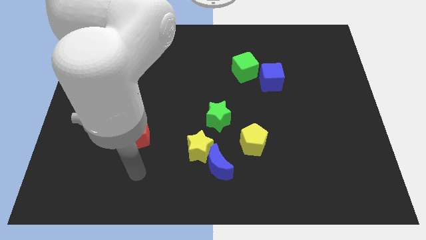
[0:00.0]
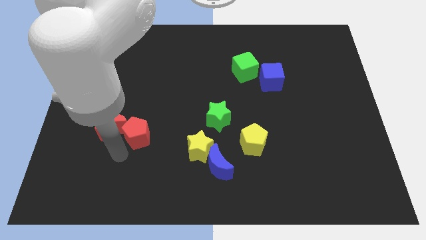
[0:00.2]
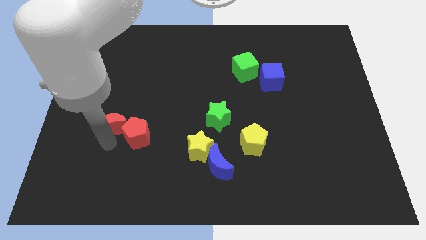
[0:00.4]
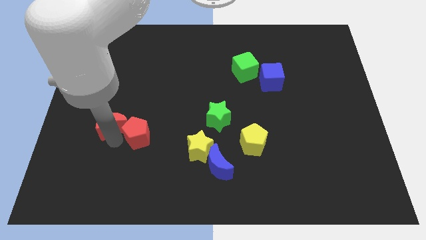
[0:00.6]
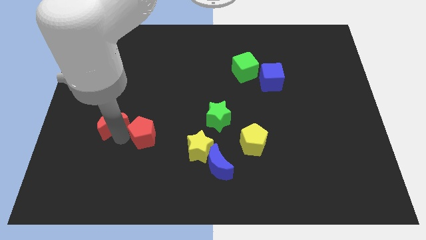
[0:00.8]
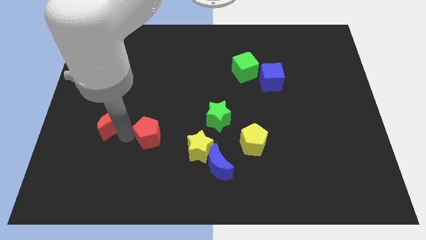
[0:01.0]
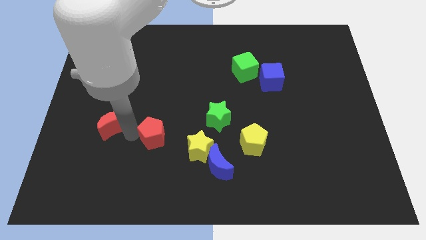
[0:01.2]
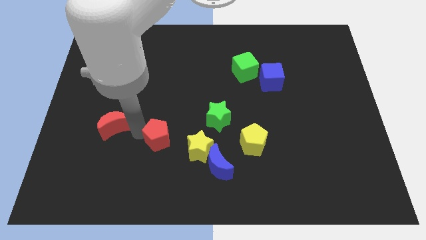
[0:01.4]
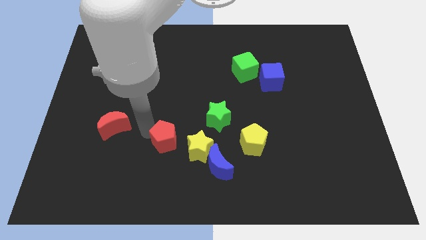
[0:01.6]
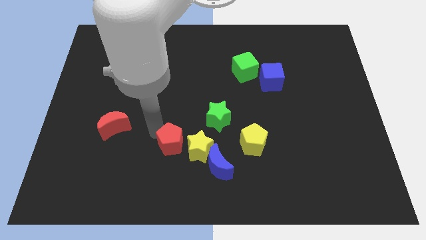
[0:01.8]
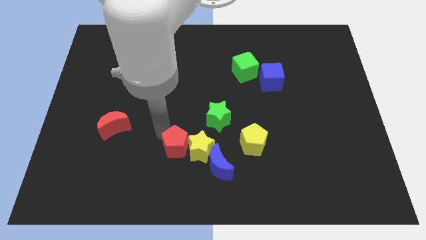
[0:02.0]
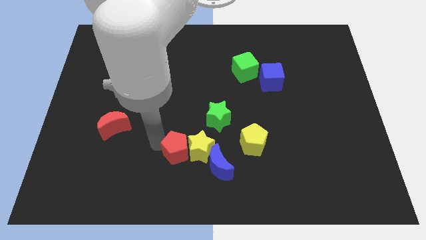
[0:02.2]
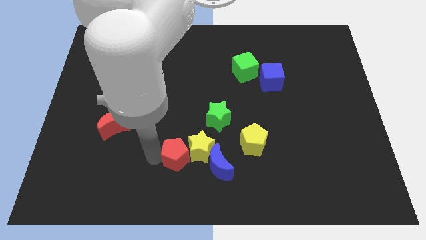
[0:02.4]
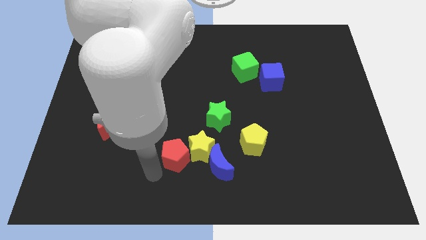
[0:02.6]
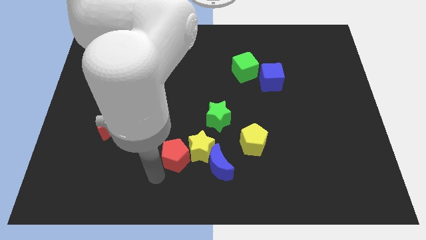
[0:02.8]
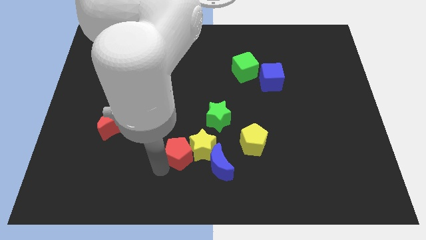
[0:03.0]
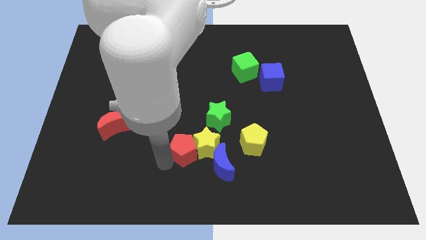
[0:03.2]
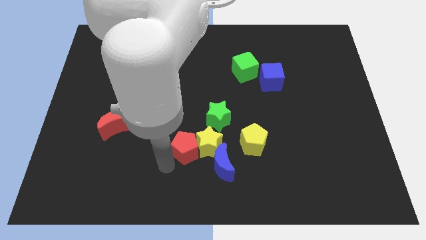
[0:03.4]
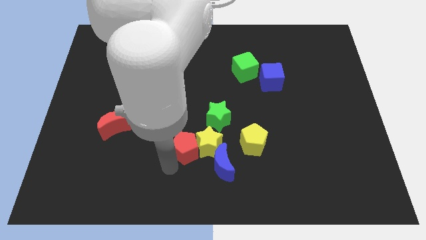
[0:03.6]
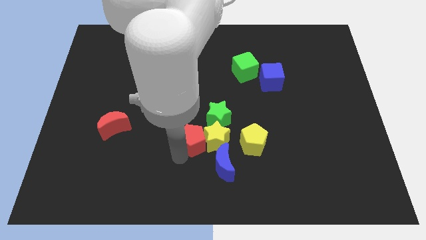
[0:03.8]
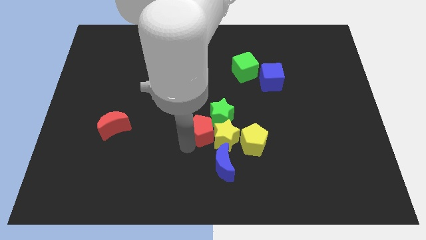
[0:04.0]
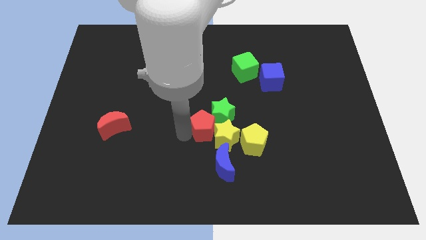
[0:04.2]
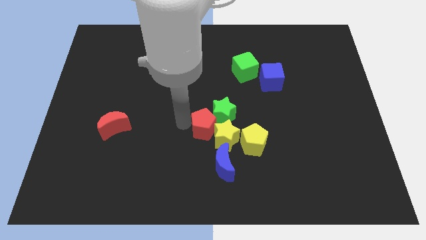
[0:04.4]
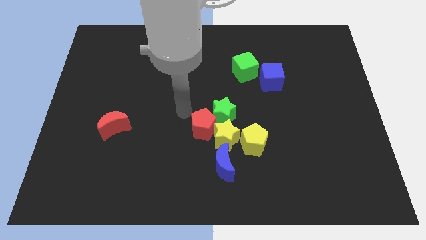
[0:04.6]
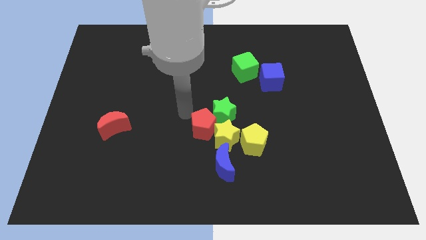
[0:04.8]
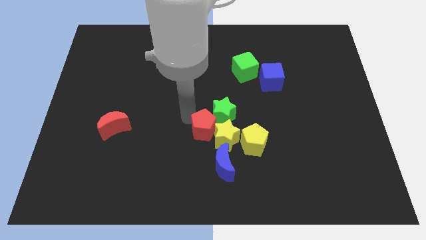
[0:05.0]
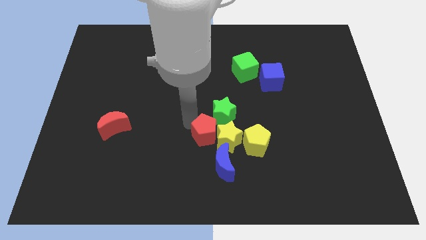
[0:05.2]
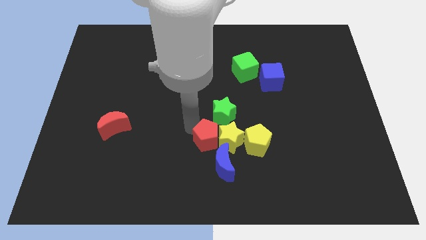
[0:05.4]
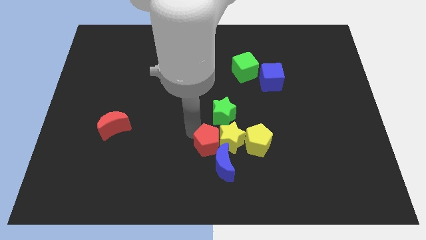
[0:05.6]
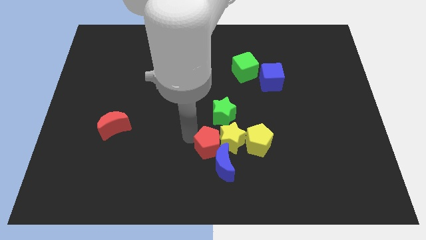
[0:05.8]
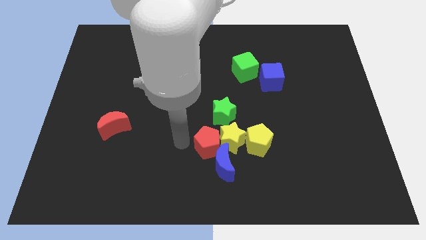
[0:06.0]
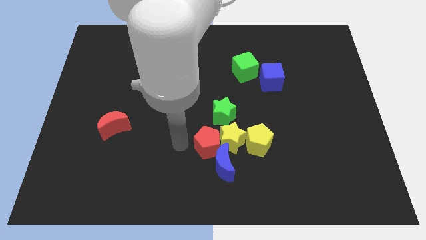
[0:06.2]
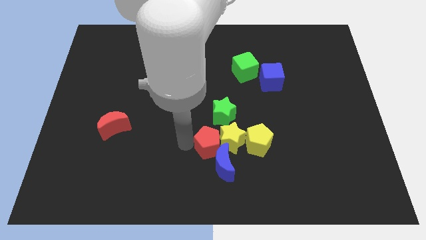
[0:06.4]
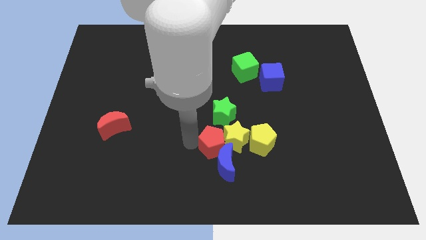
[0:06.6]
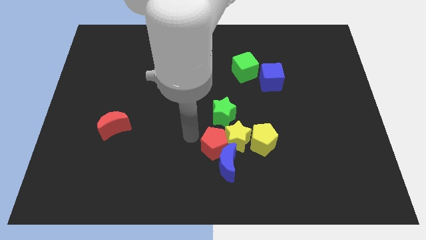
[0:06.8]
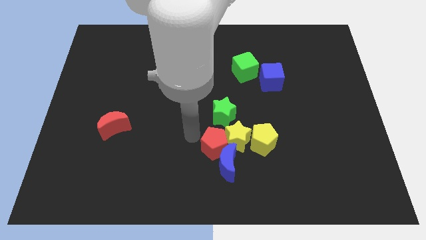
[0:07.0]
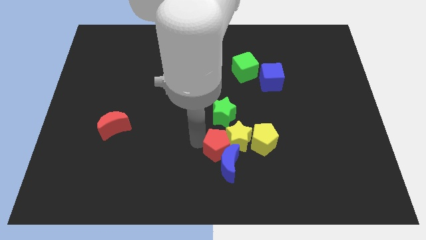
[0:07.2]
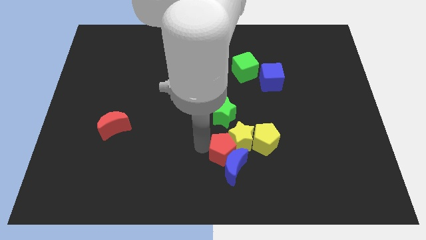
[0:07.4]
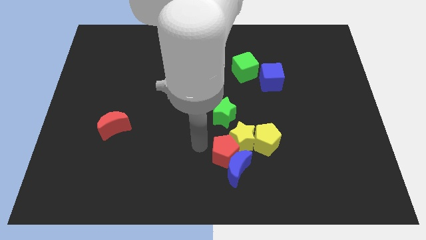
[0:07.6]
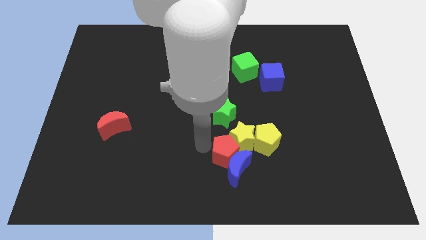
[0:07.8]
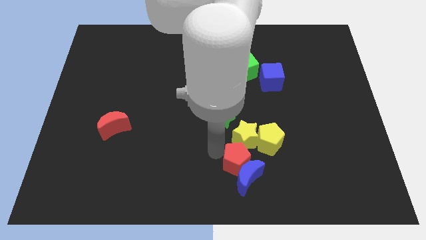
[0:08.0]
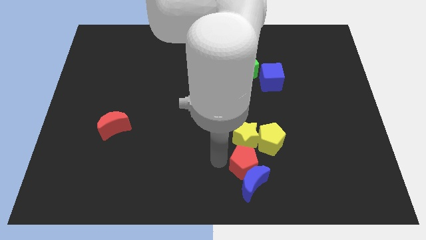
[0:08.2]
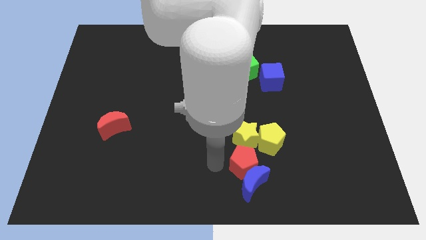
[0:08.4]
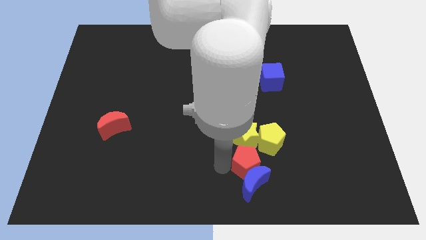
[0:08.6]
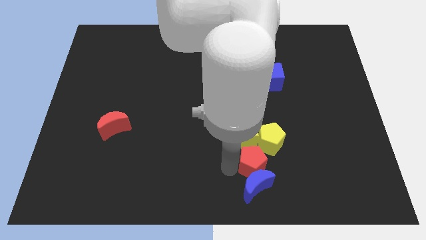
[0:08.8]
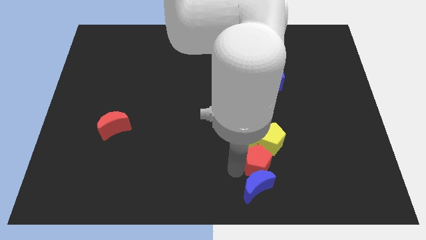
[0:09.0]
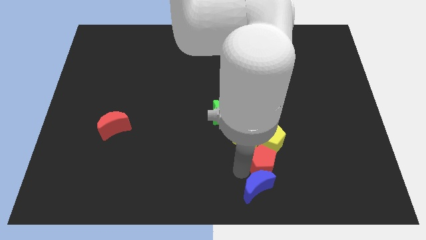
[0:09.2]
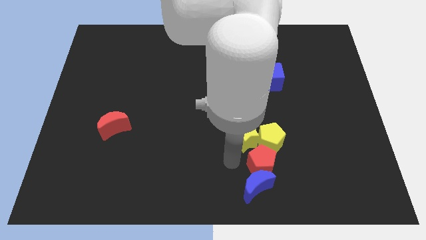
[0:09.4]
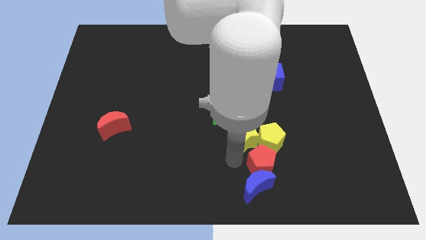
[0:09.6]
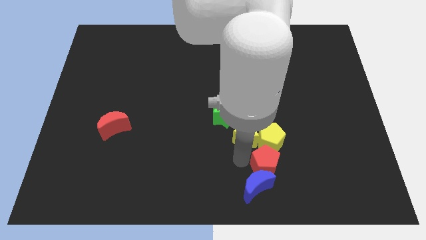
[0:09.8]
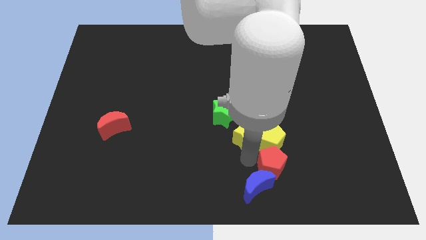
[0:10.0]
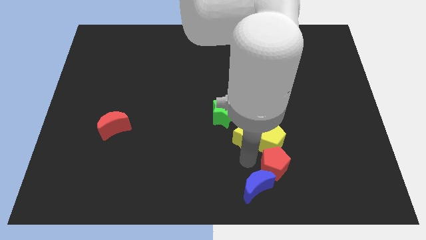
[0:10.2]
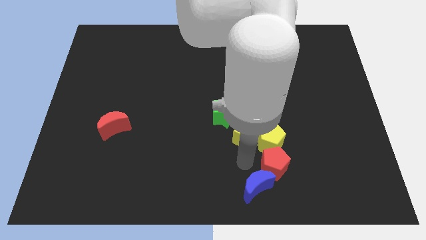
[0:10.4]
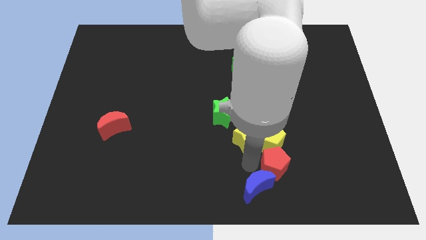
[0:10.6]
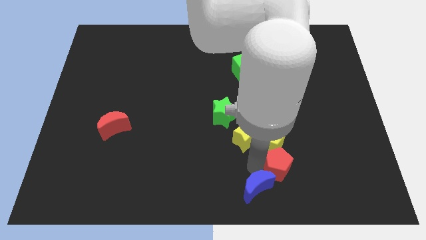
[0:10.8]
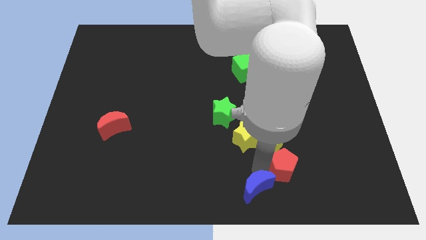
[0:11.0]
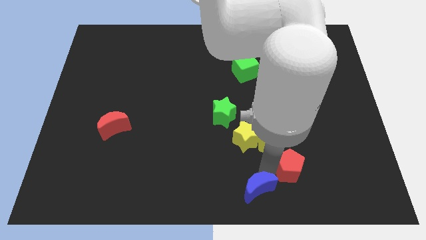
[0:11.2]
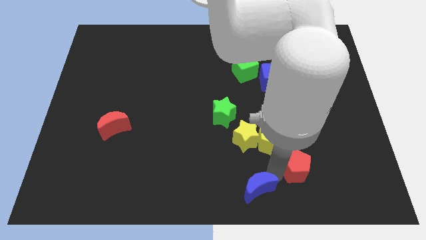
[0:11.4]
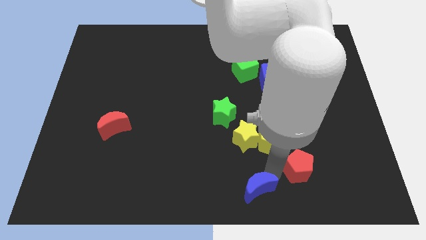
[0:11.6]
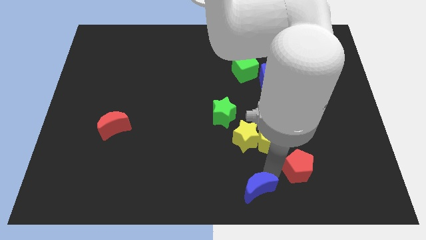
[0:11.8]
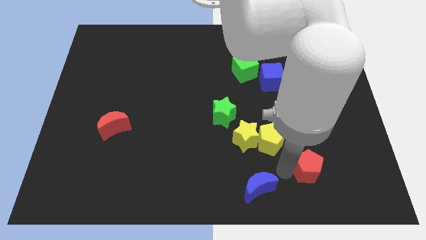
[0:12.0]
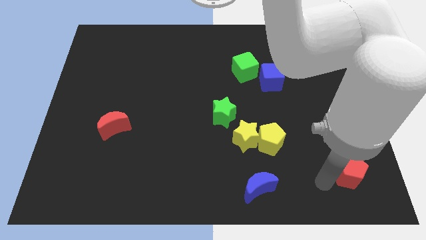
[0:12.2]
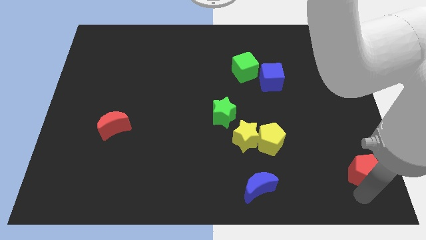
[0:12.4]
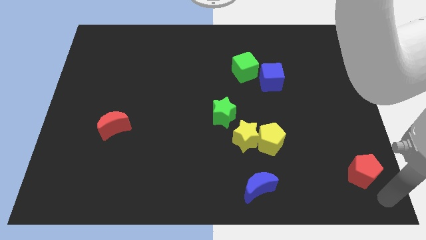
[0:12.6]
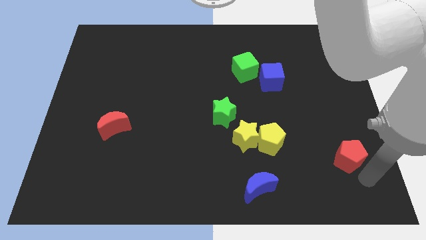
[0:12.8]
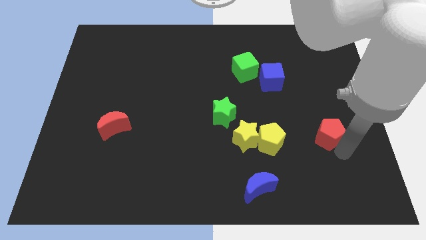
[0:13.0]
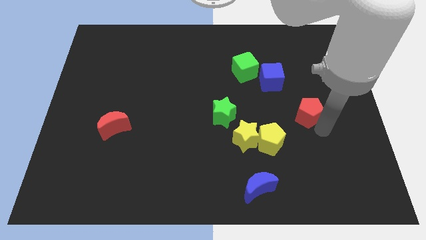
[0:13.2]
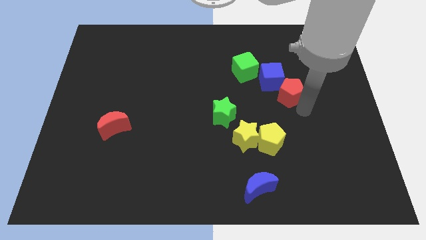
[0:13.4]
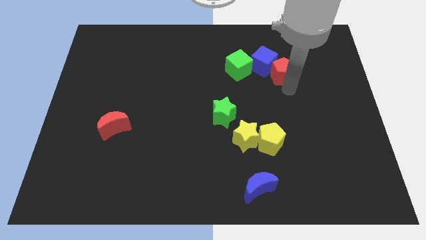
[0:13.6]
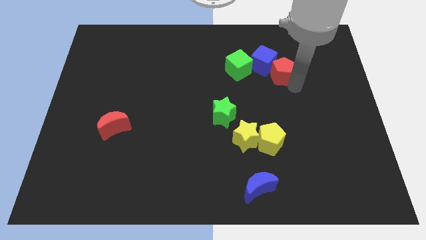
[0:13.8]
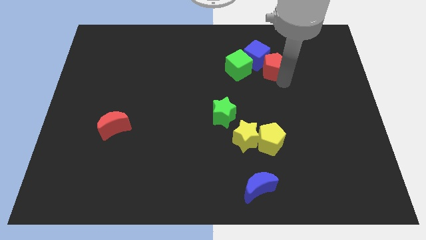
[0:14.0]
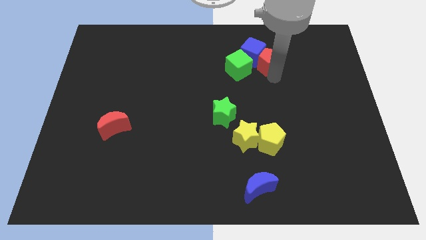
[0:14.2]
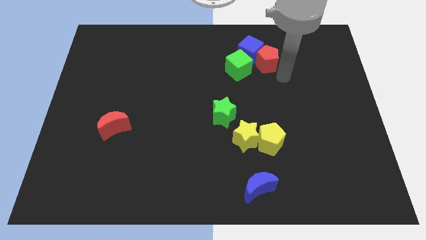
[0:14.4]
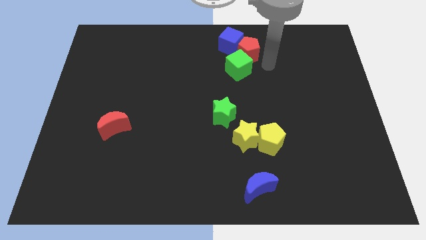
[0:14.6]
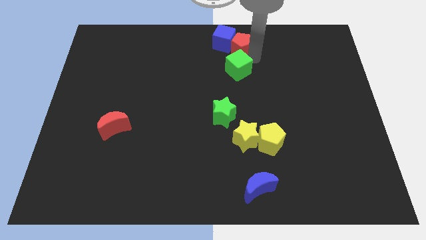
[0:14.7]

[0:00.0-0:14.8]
slide the red pentagon to the top side
